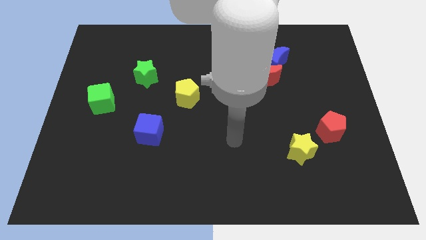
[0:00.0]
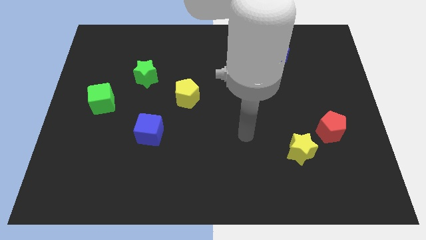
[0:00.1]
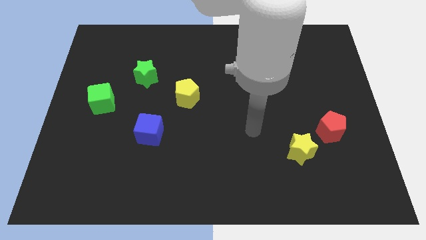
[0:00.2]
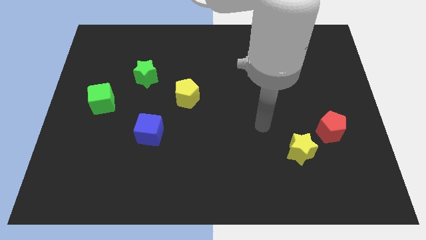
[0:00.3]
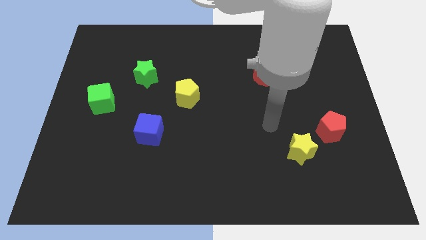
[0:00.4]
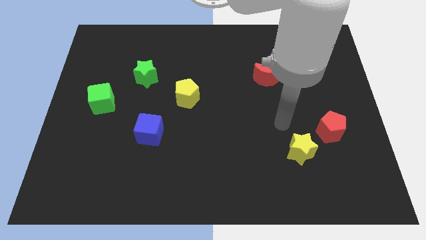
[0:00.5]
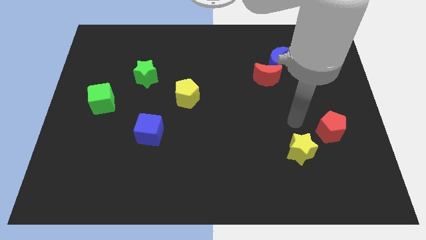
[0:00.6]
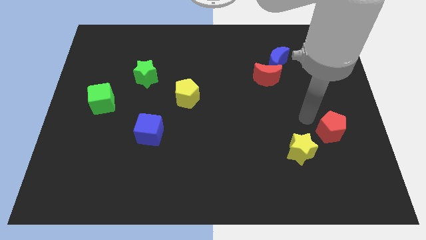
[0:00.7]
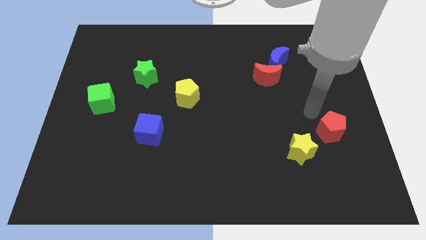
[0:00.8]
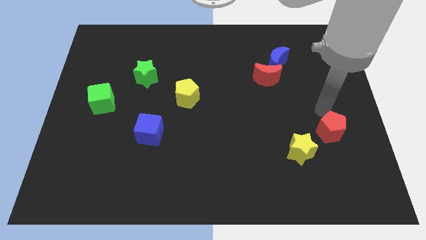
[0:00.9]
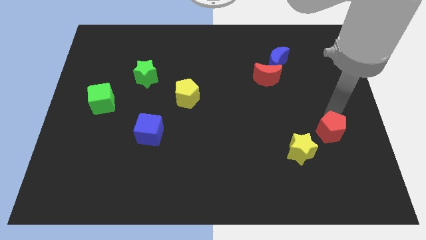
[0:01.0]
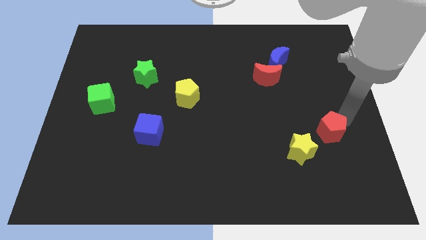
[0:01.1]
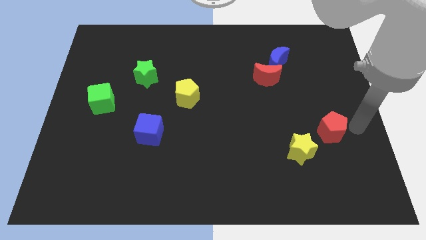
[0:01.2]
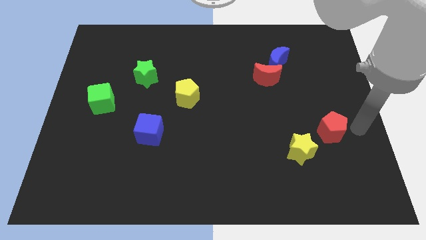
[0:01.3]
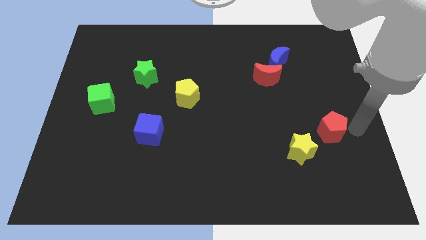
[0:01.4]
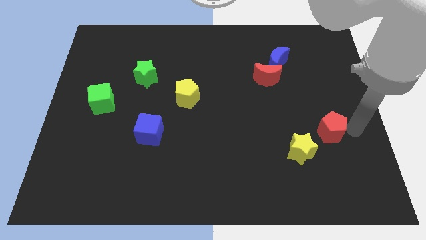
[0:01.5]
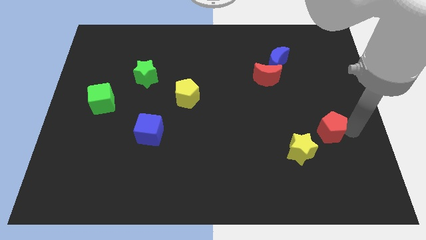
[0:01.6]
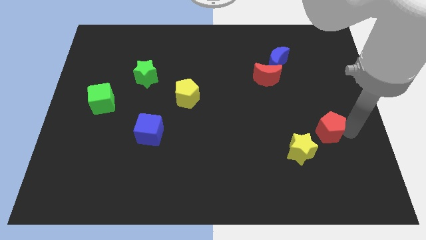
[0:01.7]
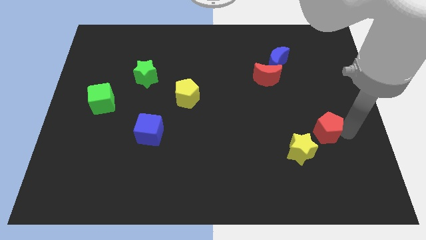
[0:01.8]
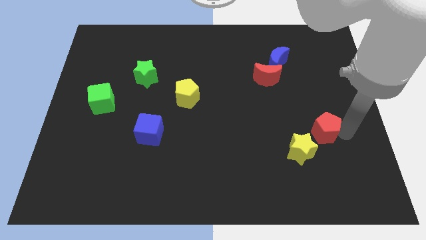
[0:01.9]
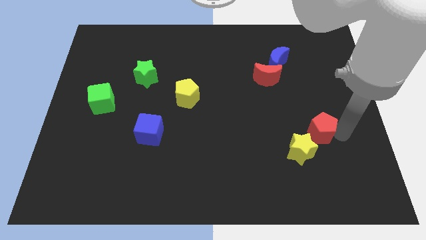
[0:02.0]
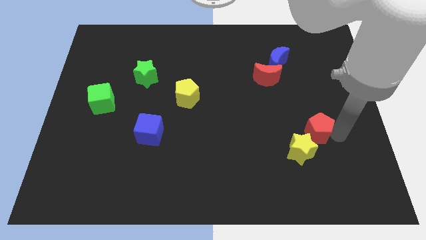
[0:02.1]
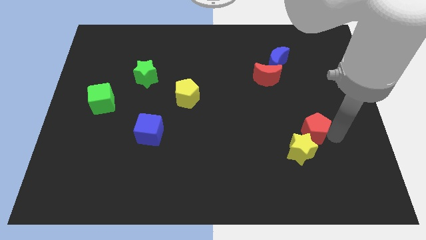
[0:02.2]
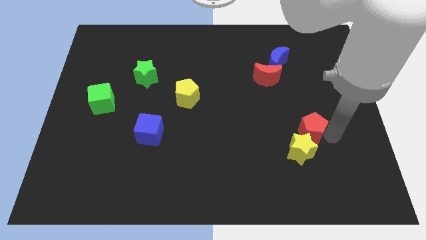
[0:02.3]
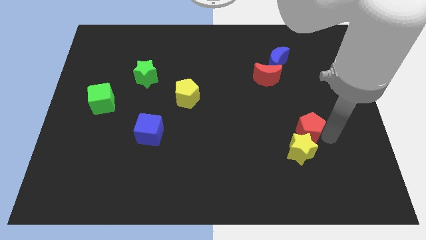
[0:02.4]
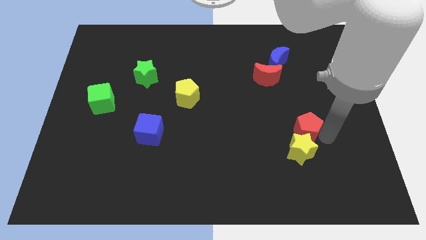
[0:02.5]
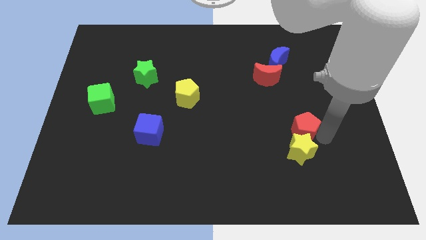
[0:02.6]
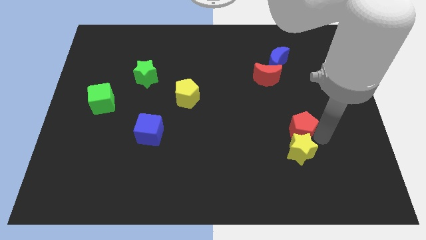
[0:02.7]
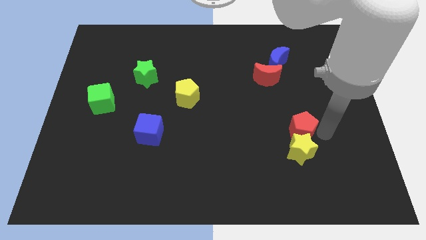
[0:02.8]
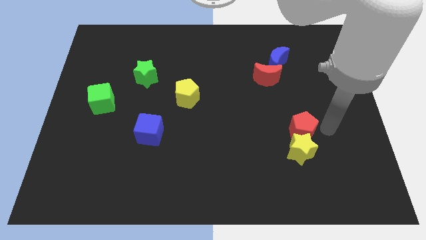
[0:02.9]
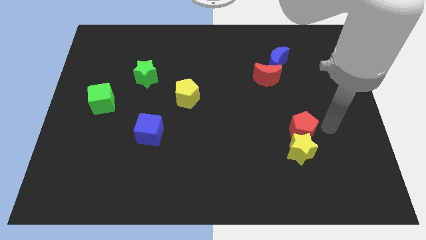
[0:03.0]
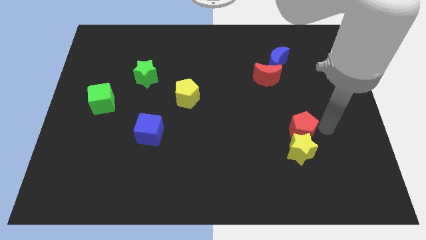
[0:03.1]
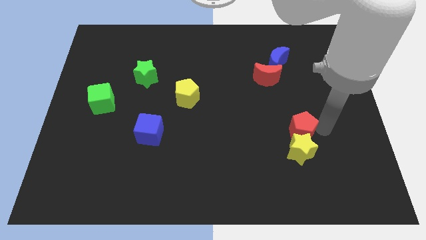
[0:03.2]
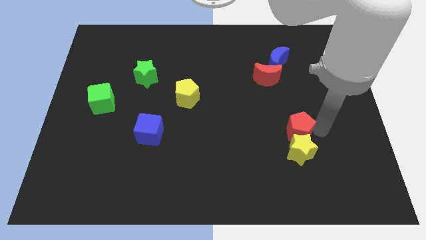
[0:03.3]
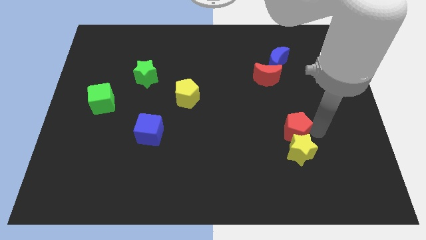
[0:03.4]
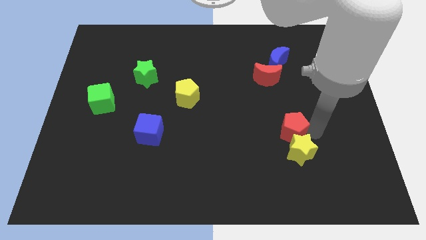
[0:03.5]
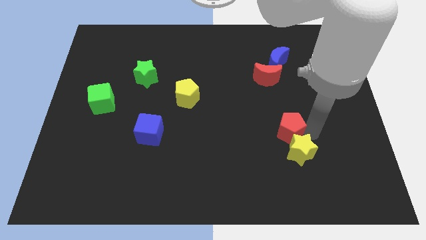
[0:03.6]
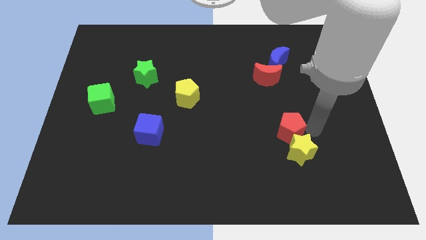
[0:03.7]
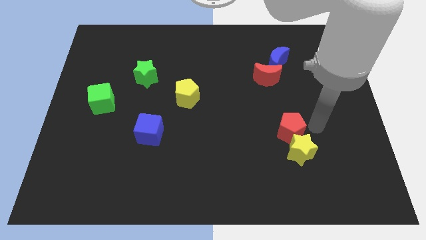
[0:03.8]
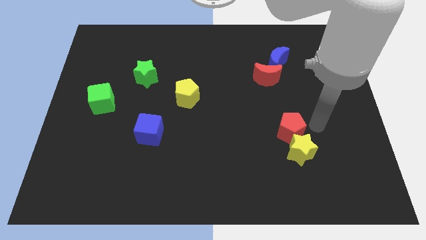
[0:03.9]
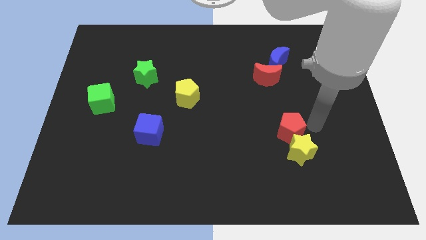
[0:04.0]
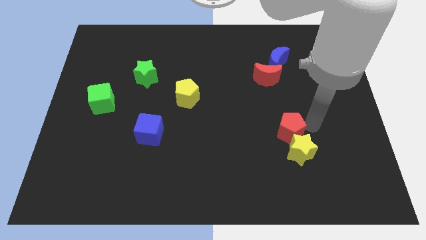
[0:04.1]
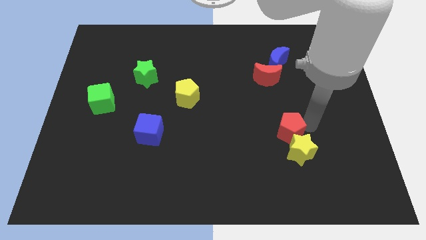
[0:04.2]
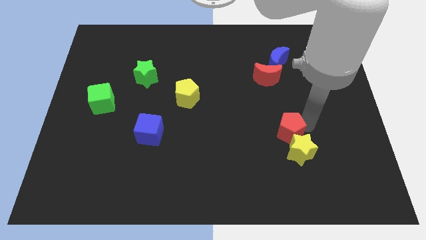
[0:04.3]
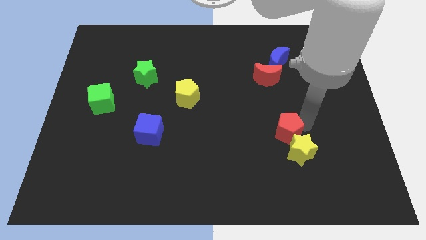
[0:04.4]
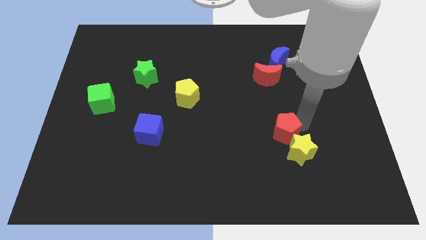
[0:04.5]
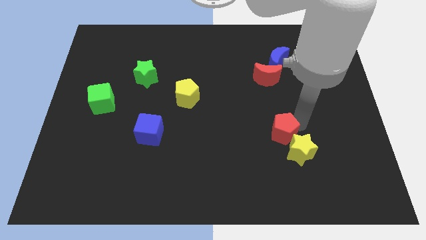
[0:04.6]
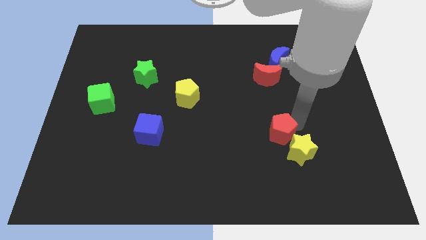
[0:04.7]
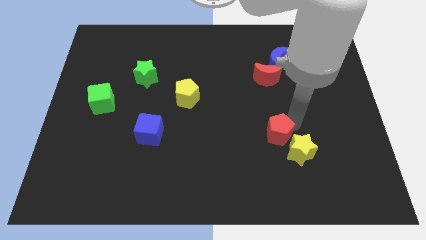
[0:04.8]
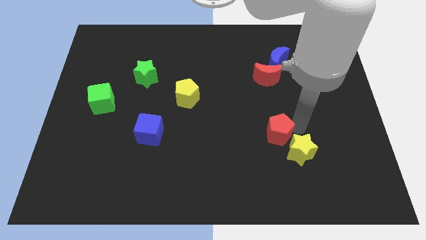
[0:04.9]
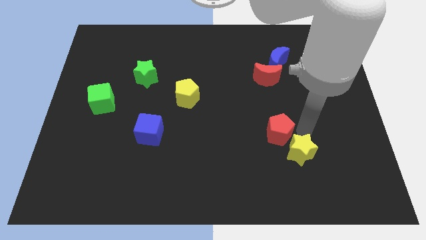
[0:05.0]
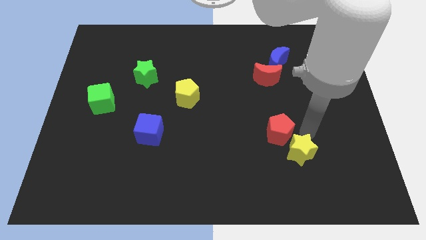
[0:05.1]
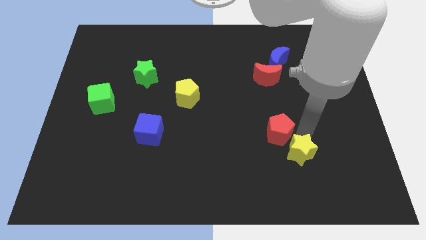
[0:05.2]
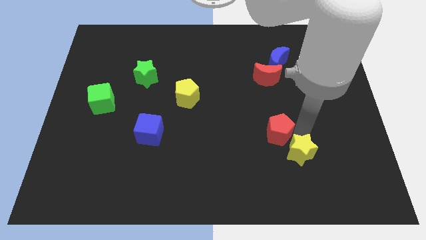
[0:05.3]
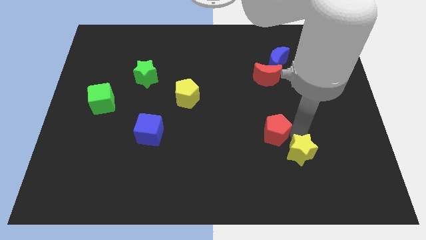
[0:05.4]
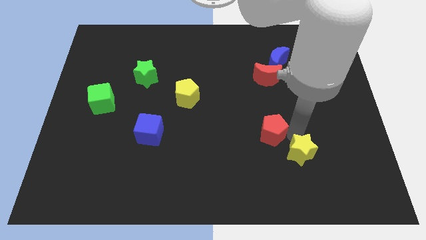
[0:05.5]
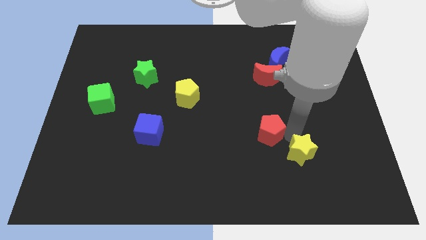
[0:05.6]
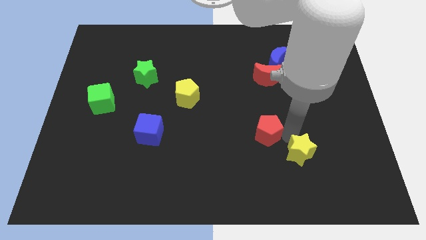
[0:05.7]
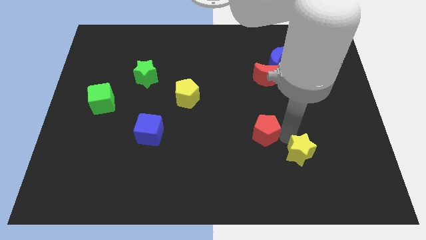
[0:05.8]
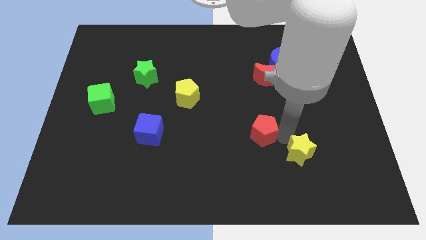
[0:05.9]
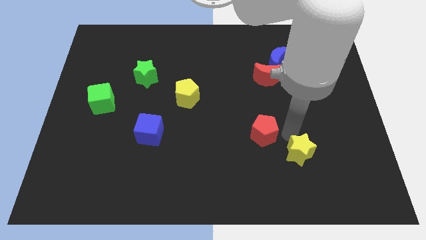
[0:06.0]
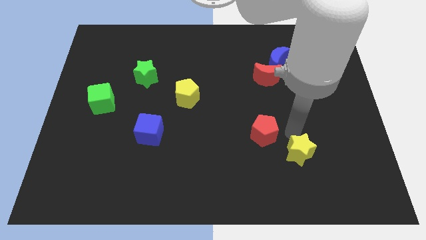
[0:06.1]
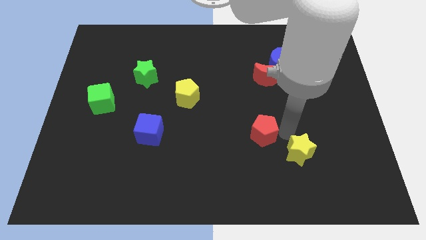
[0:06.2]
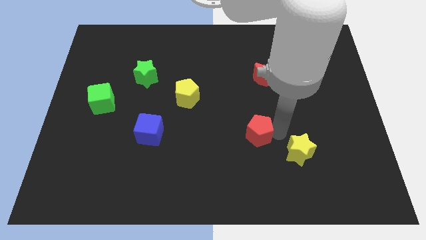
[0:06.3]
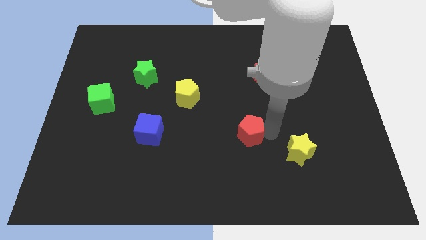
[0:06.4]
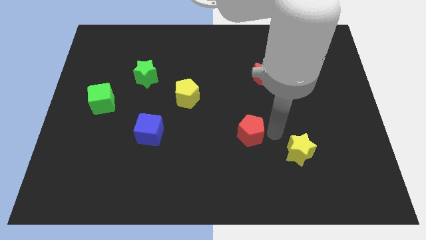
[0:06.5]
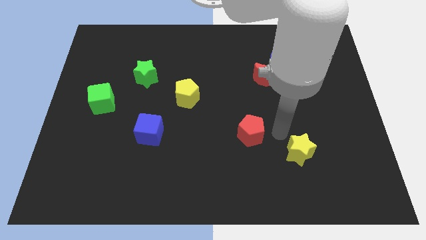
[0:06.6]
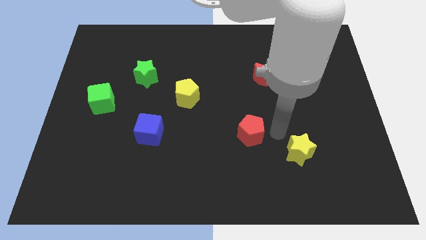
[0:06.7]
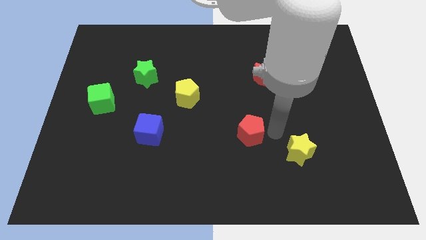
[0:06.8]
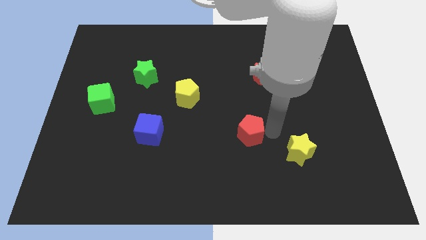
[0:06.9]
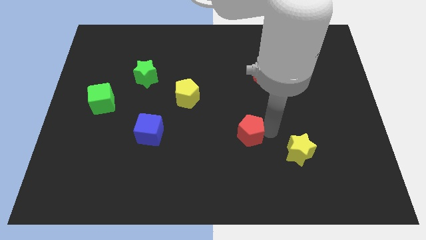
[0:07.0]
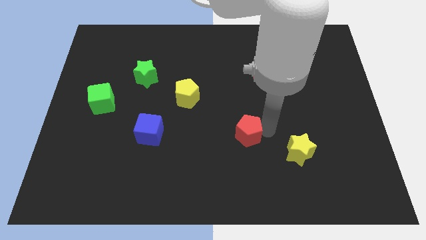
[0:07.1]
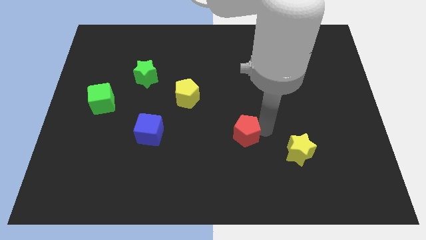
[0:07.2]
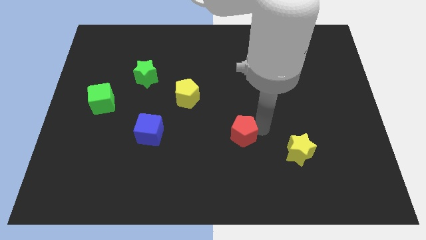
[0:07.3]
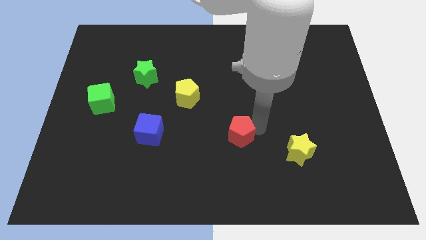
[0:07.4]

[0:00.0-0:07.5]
slide the red pentagon left

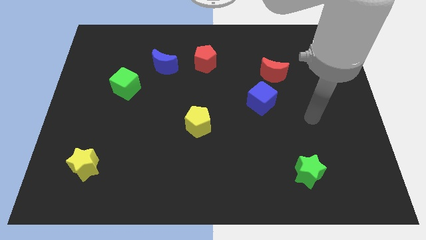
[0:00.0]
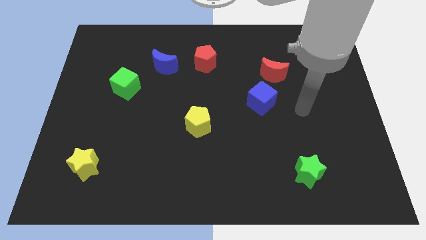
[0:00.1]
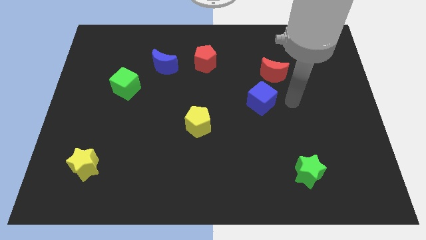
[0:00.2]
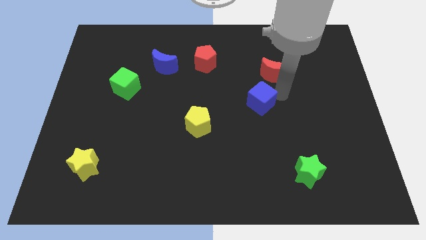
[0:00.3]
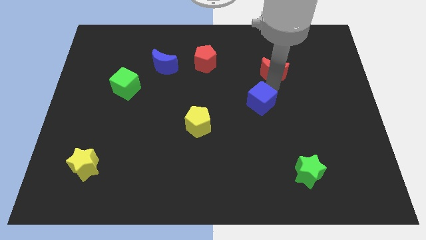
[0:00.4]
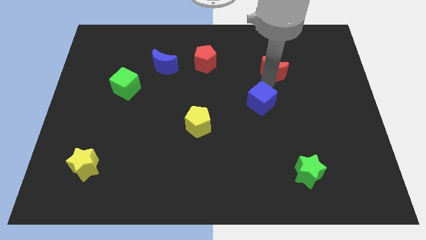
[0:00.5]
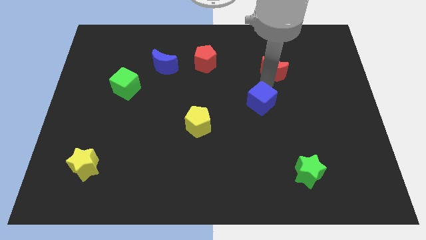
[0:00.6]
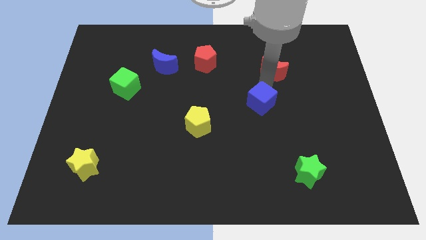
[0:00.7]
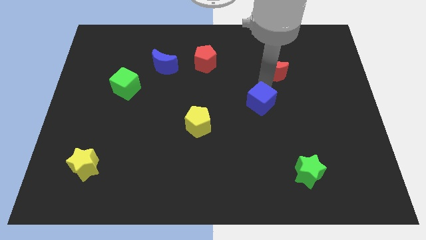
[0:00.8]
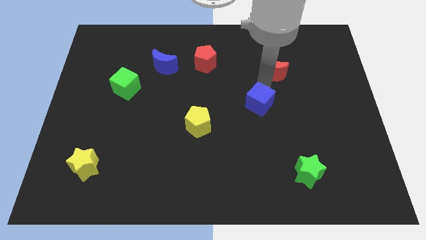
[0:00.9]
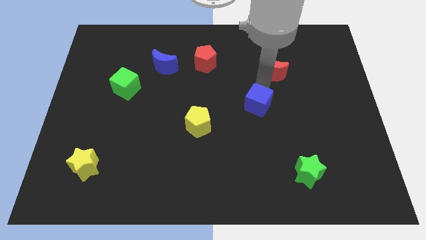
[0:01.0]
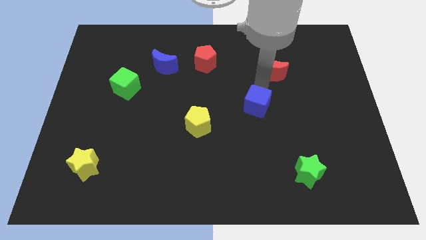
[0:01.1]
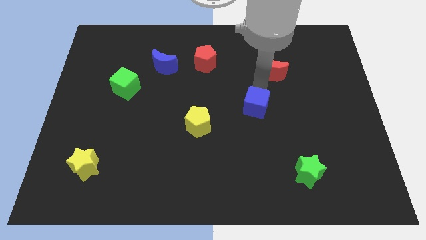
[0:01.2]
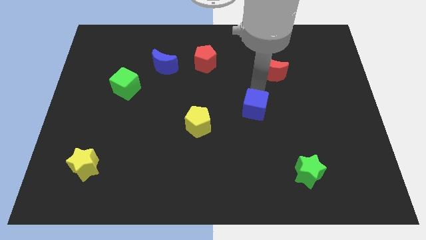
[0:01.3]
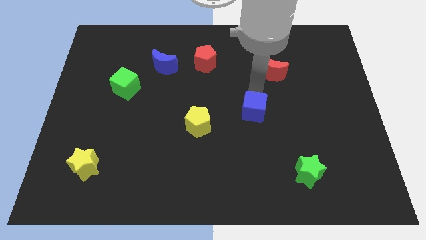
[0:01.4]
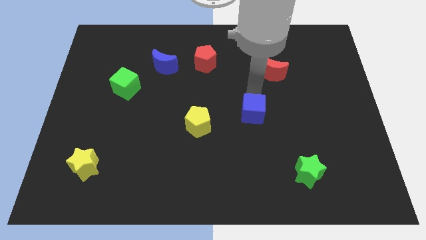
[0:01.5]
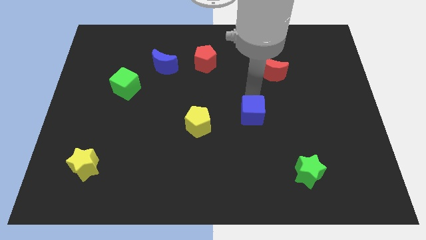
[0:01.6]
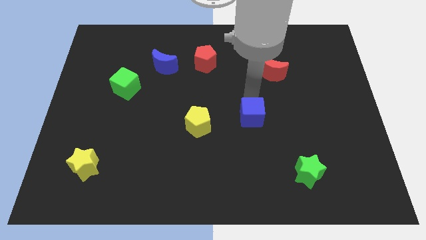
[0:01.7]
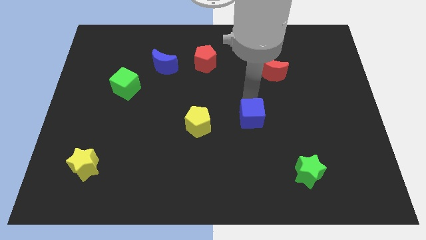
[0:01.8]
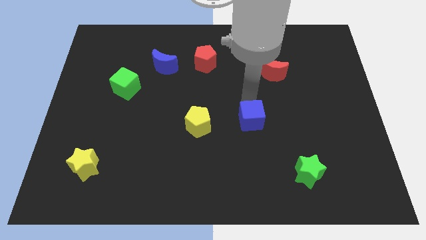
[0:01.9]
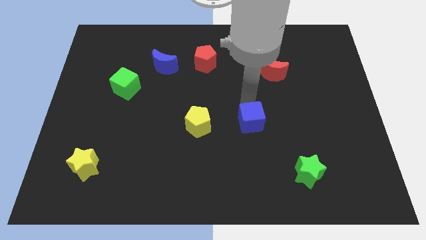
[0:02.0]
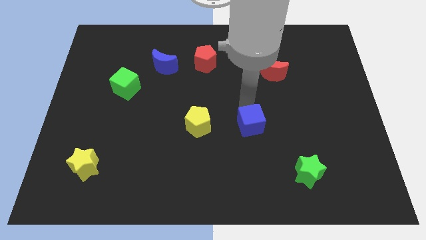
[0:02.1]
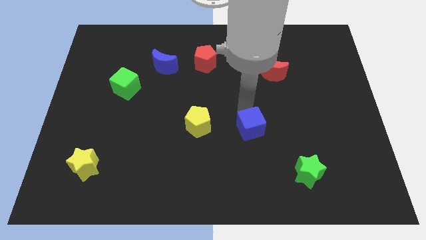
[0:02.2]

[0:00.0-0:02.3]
slide the blue cube a bit downwards
